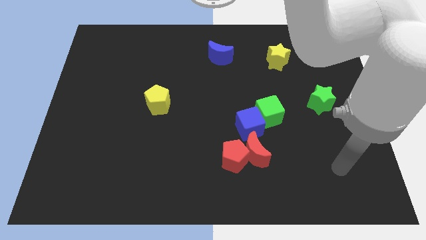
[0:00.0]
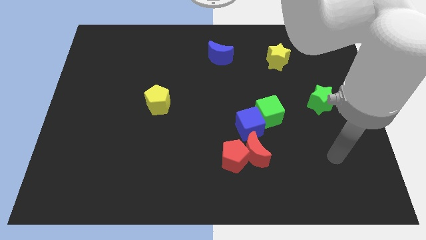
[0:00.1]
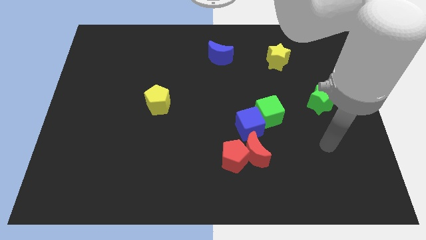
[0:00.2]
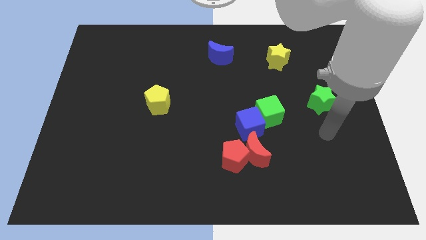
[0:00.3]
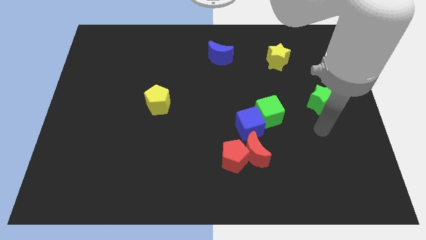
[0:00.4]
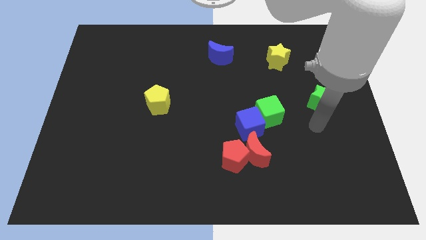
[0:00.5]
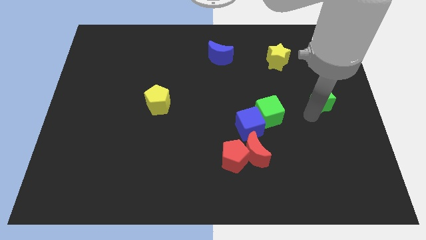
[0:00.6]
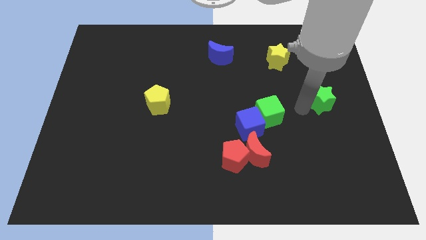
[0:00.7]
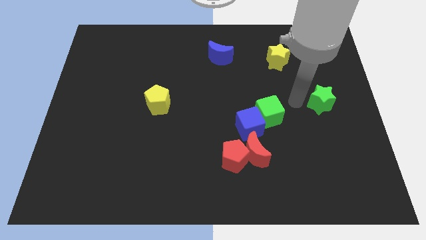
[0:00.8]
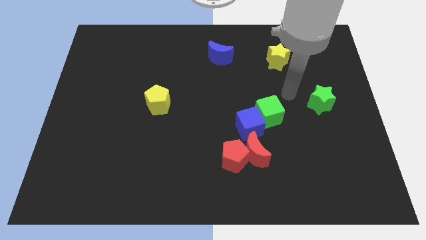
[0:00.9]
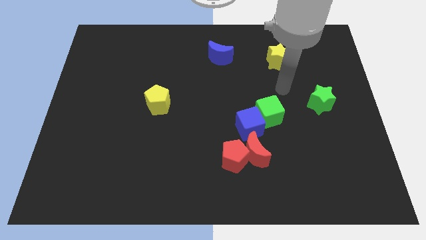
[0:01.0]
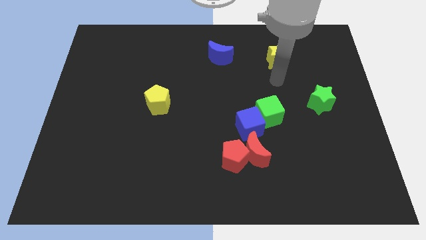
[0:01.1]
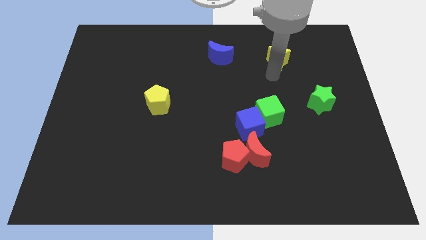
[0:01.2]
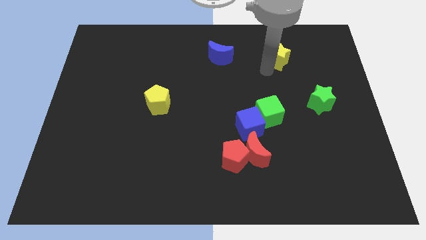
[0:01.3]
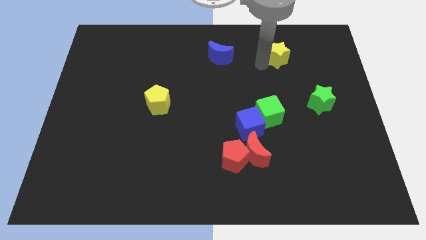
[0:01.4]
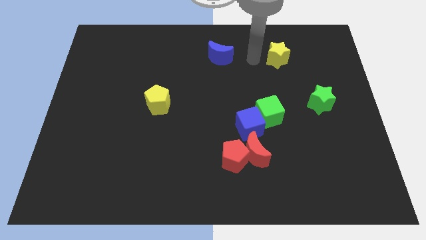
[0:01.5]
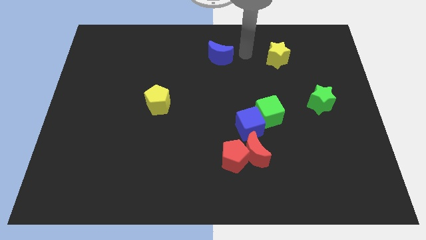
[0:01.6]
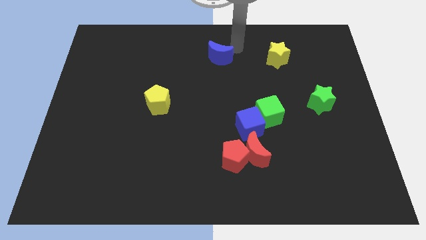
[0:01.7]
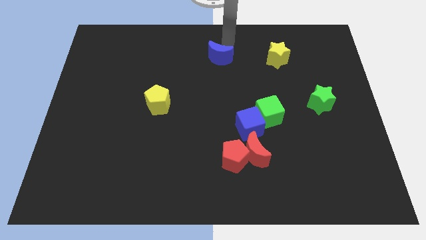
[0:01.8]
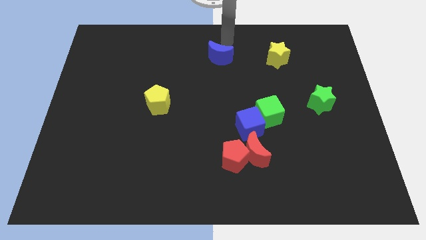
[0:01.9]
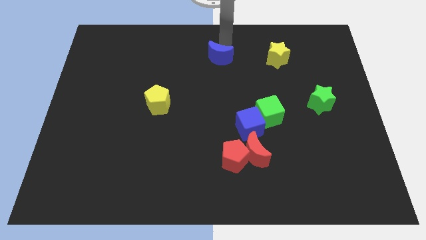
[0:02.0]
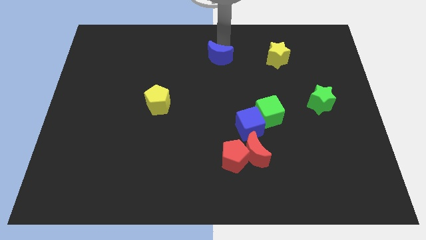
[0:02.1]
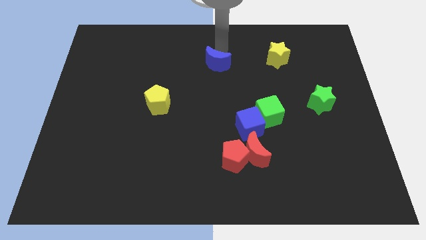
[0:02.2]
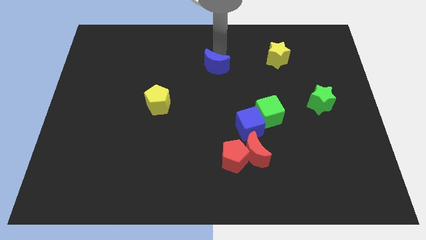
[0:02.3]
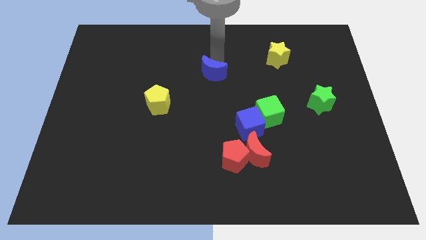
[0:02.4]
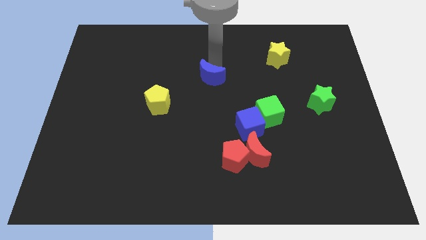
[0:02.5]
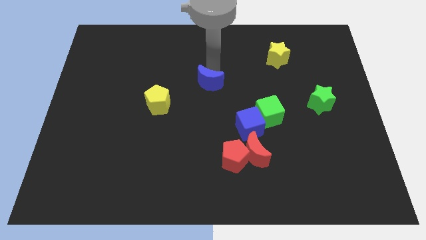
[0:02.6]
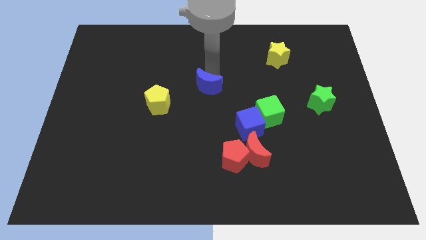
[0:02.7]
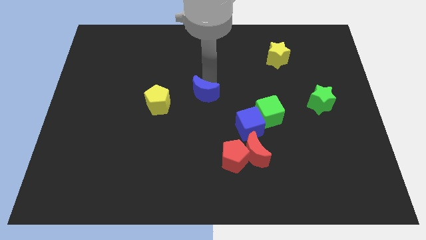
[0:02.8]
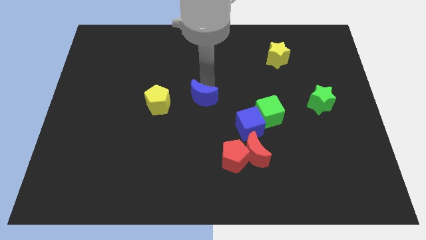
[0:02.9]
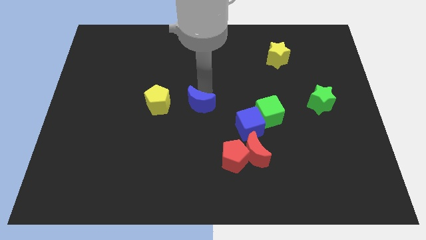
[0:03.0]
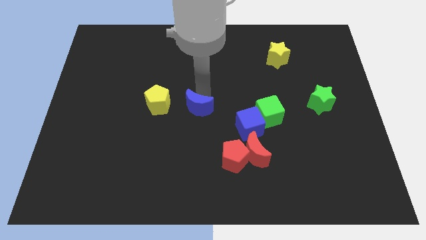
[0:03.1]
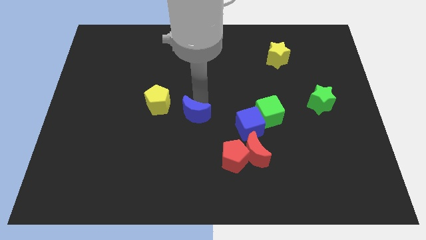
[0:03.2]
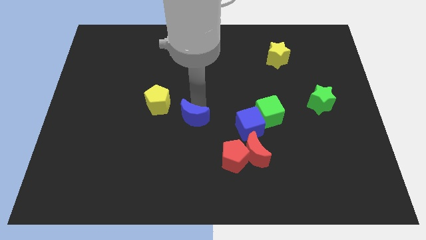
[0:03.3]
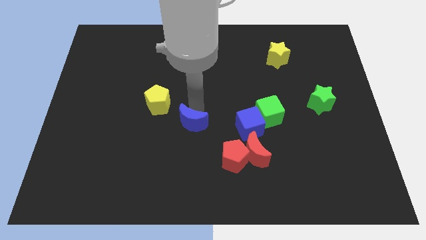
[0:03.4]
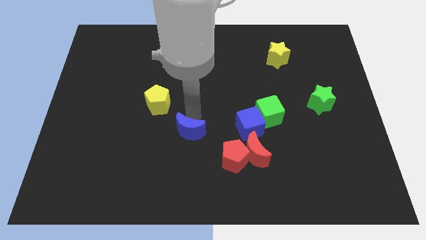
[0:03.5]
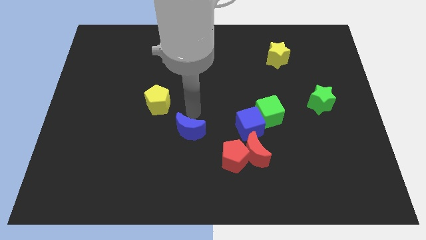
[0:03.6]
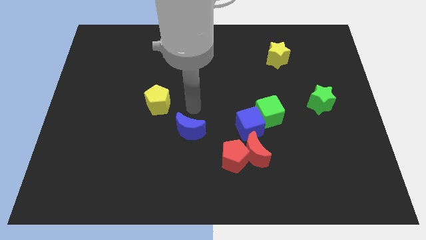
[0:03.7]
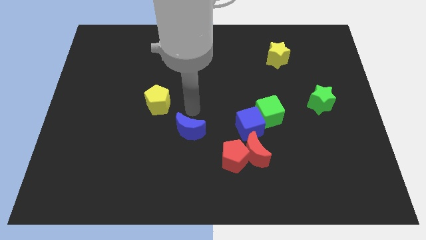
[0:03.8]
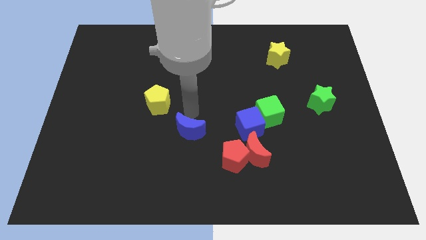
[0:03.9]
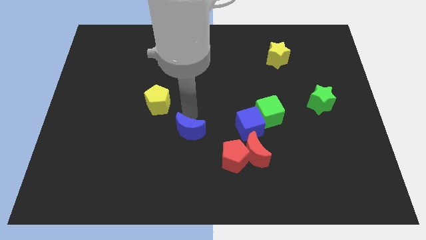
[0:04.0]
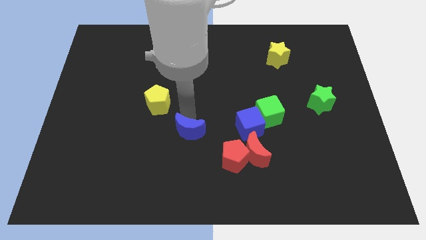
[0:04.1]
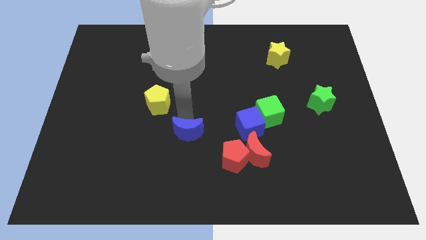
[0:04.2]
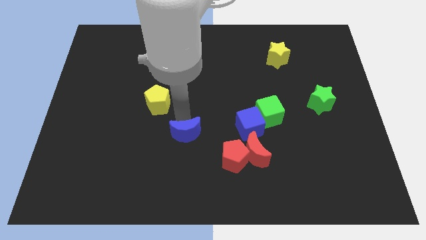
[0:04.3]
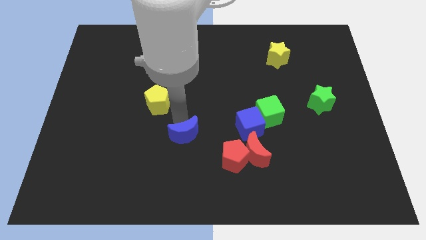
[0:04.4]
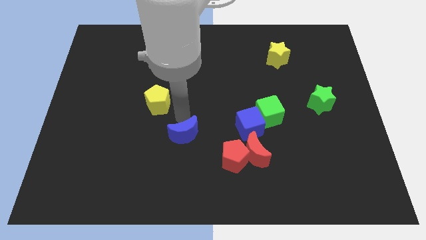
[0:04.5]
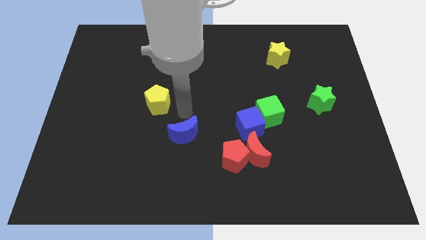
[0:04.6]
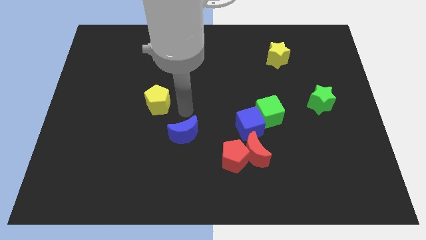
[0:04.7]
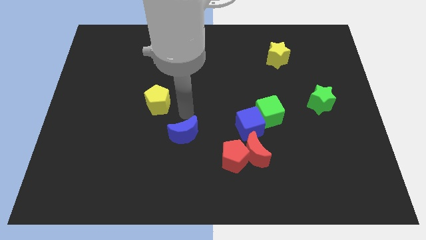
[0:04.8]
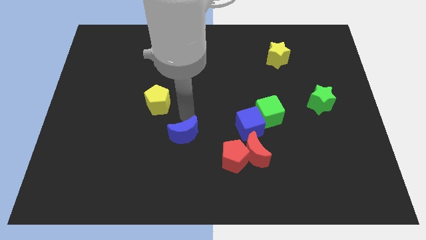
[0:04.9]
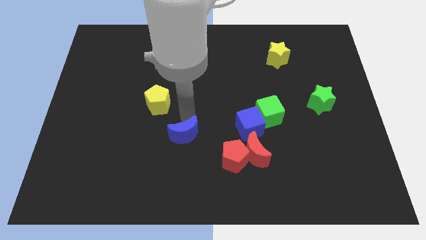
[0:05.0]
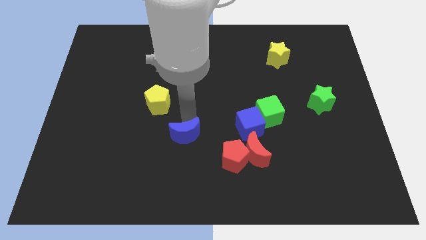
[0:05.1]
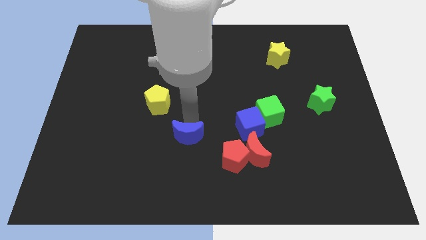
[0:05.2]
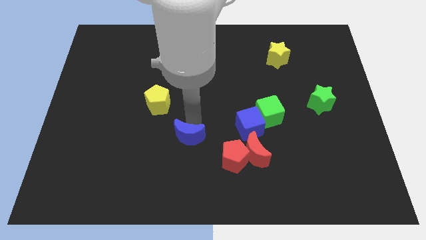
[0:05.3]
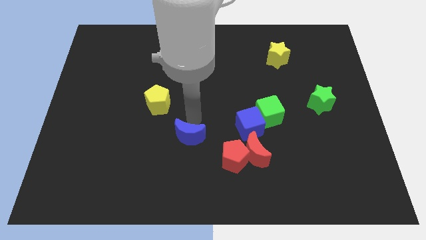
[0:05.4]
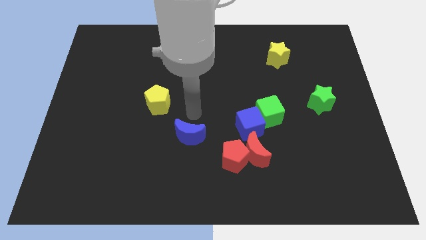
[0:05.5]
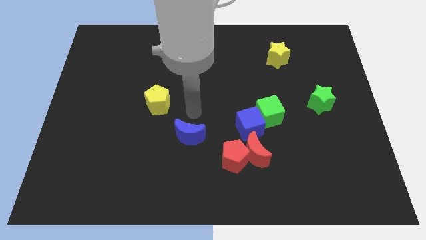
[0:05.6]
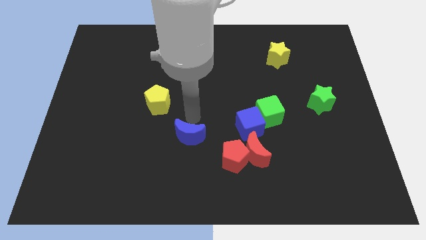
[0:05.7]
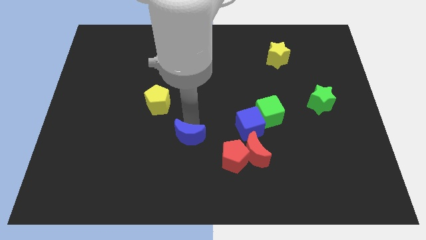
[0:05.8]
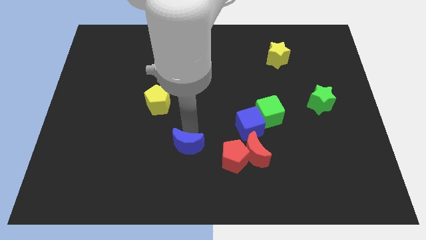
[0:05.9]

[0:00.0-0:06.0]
put the blue moon just left of the red pentagon

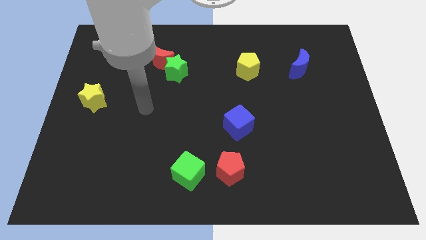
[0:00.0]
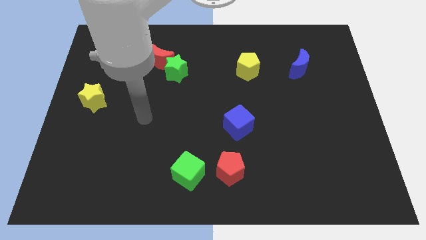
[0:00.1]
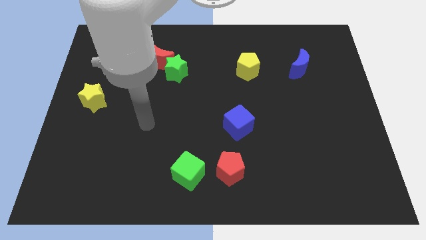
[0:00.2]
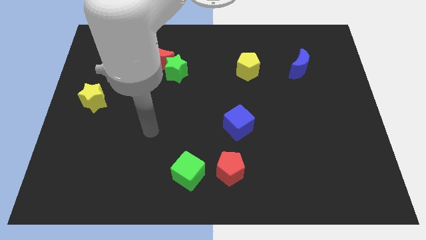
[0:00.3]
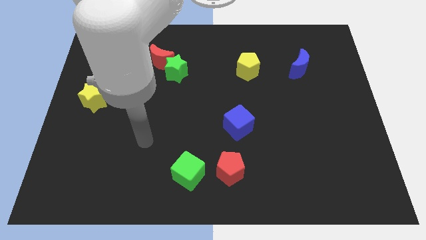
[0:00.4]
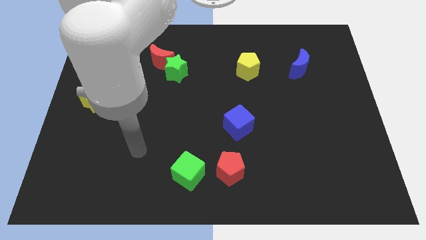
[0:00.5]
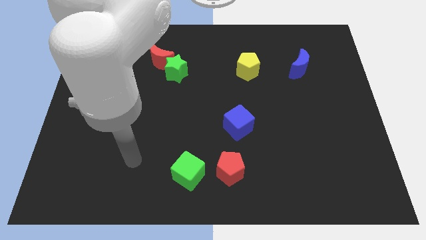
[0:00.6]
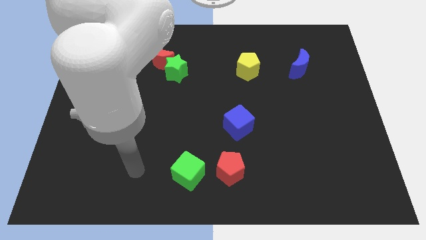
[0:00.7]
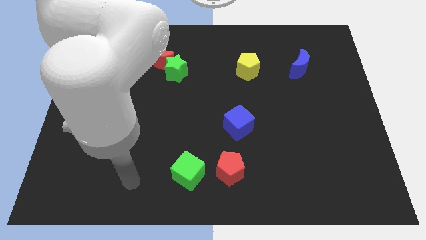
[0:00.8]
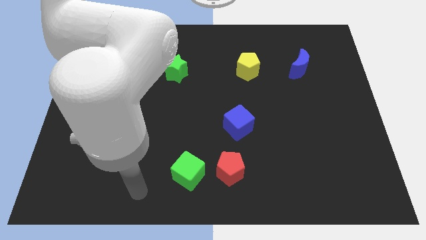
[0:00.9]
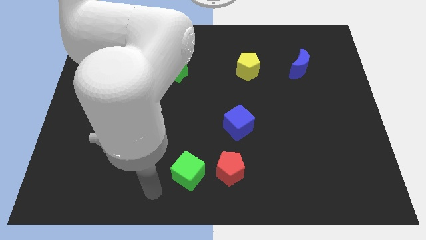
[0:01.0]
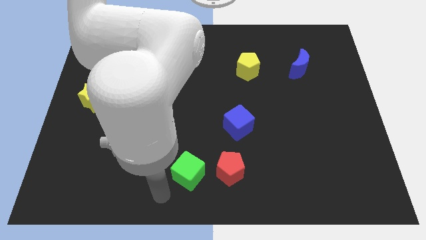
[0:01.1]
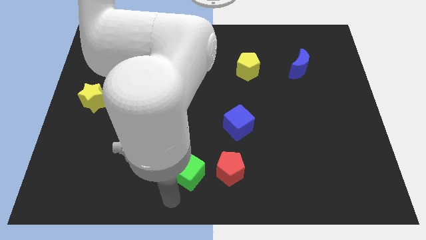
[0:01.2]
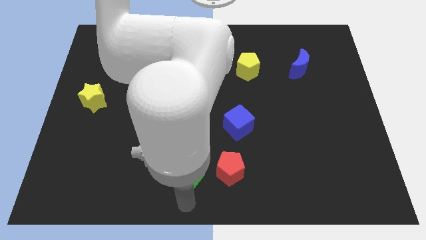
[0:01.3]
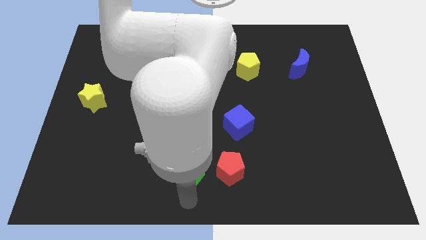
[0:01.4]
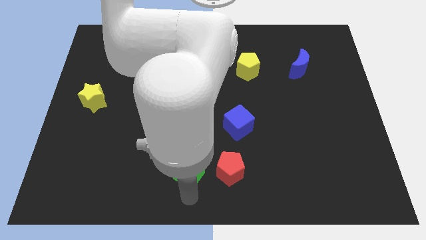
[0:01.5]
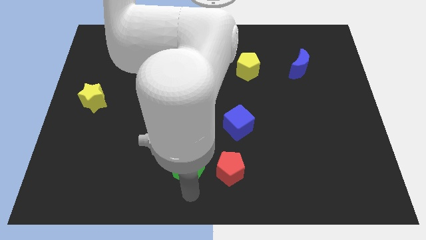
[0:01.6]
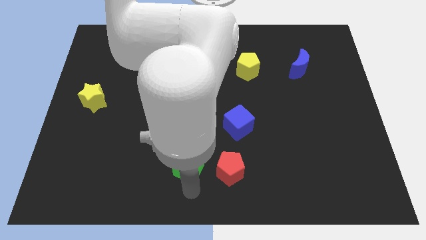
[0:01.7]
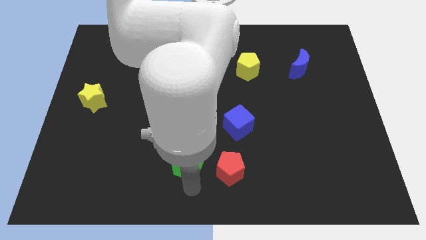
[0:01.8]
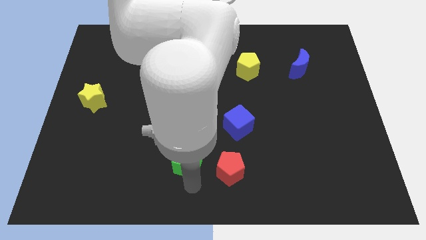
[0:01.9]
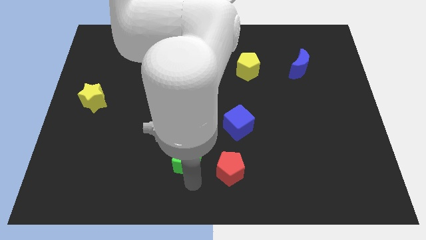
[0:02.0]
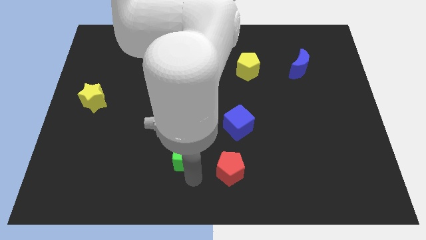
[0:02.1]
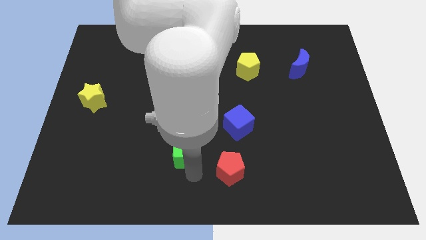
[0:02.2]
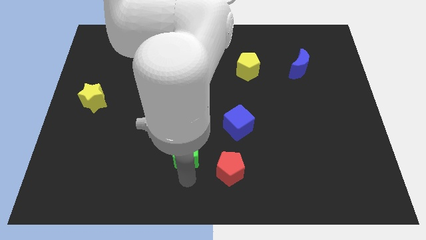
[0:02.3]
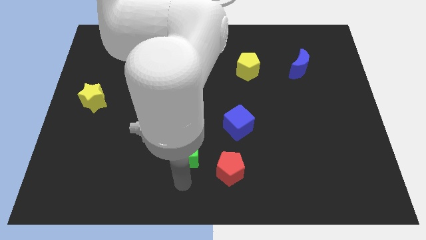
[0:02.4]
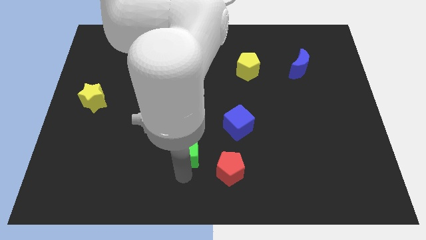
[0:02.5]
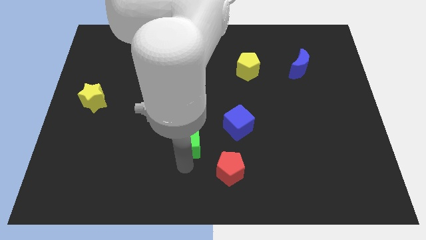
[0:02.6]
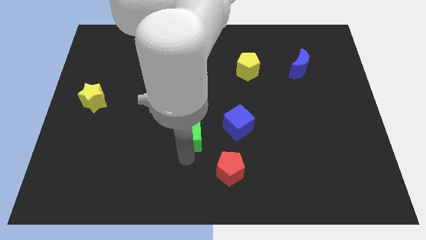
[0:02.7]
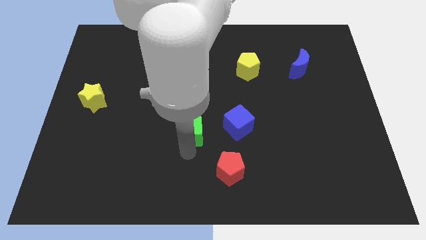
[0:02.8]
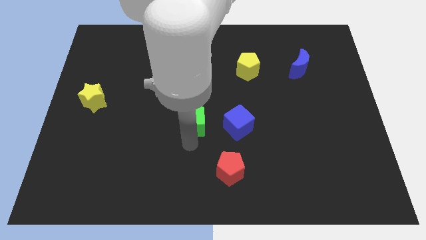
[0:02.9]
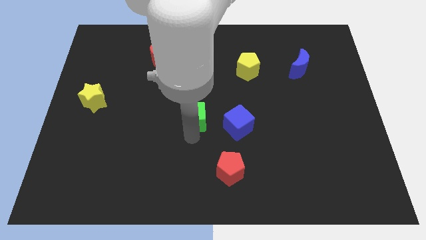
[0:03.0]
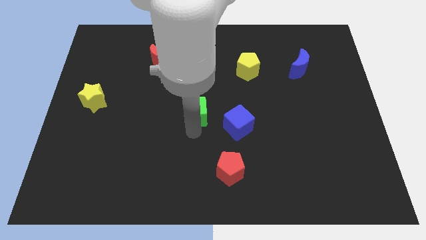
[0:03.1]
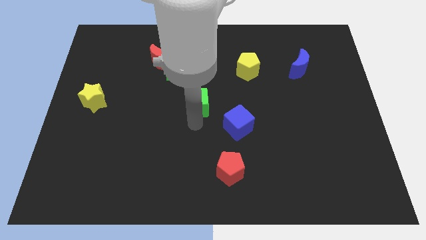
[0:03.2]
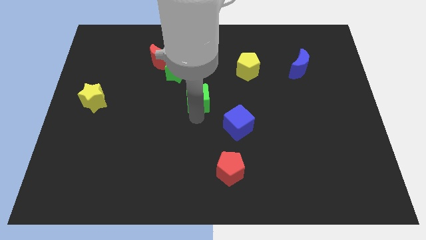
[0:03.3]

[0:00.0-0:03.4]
push the green cube to the bottom right side of the green star
